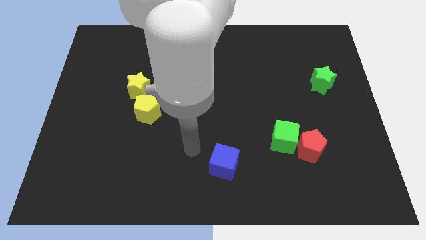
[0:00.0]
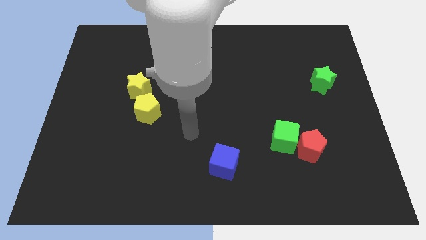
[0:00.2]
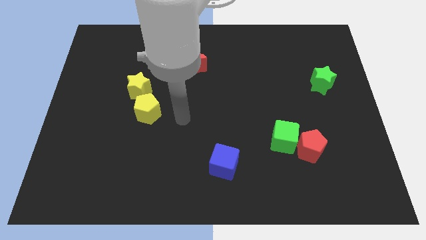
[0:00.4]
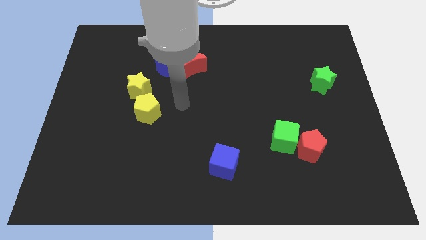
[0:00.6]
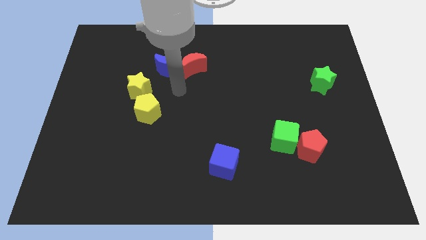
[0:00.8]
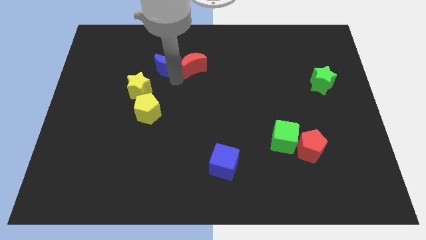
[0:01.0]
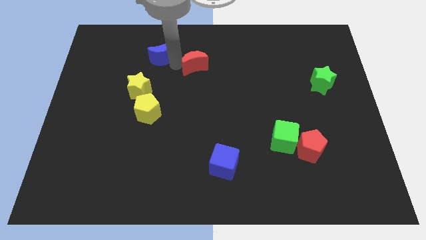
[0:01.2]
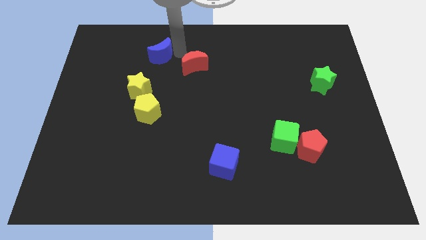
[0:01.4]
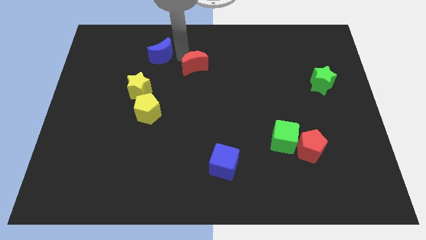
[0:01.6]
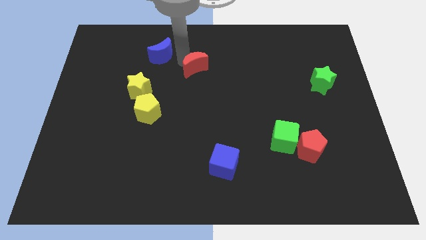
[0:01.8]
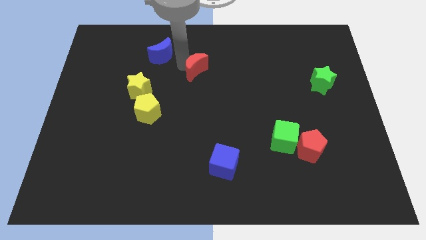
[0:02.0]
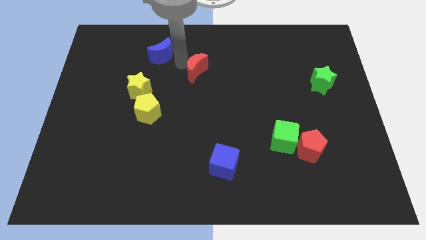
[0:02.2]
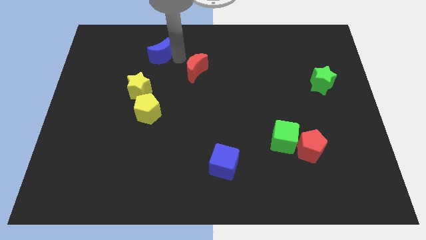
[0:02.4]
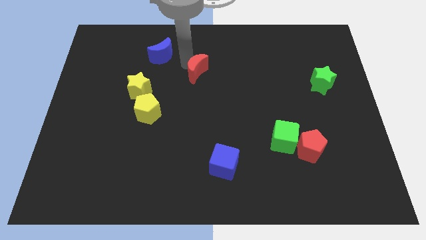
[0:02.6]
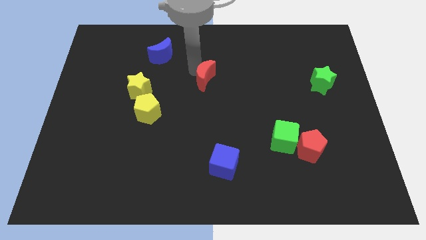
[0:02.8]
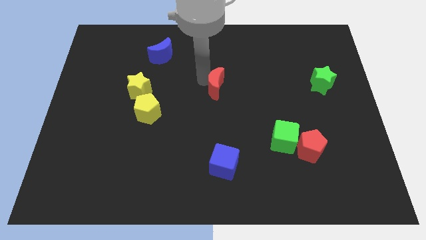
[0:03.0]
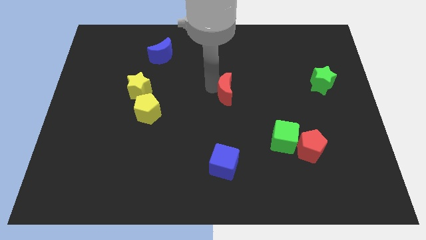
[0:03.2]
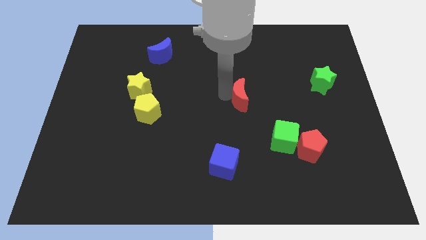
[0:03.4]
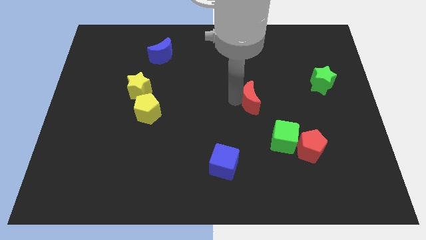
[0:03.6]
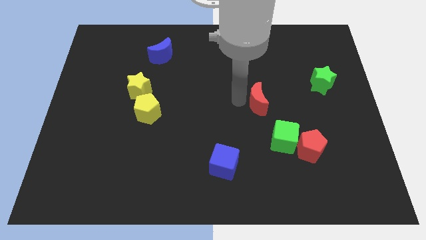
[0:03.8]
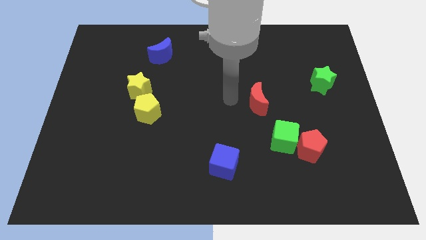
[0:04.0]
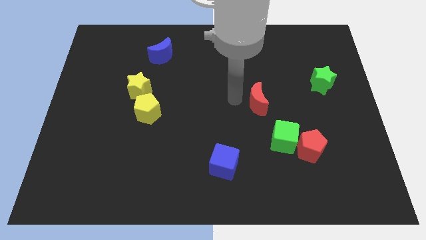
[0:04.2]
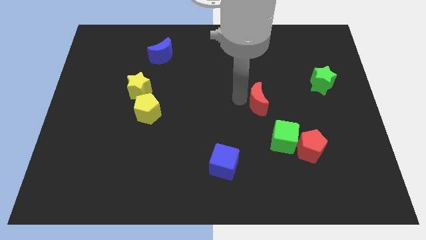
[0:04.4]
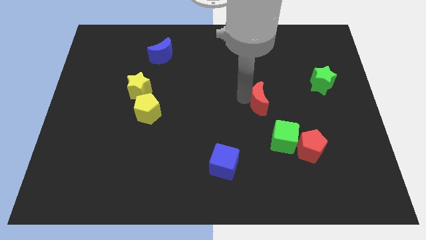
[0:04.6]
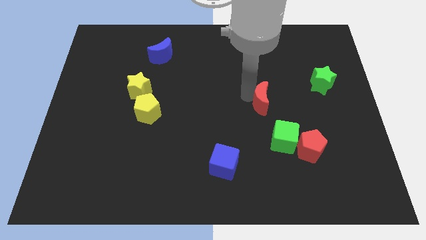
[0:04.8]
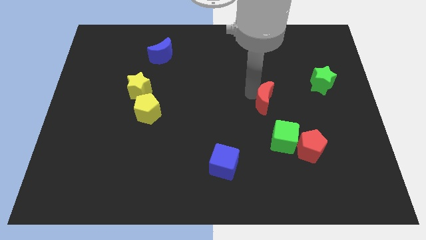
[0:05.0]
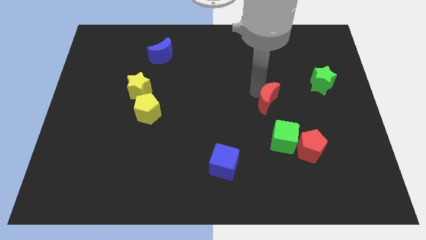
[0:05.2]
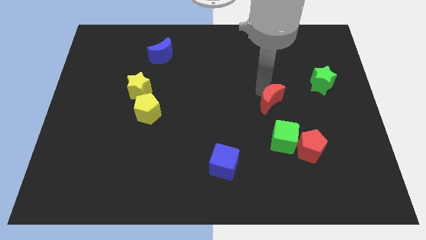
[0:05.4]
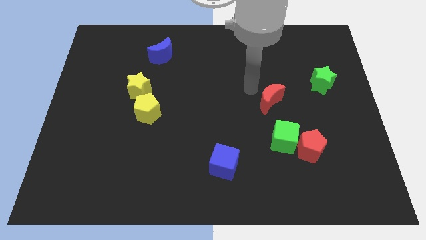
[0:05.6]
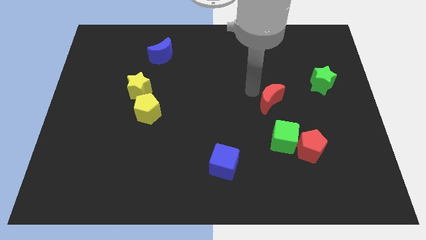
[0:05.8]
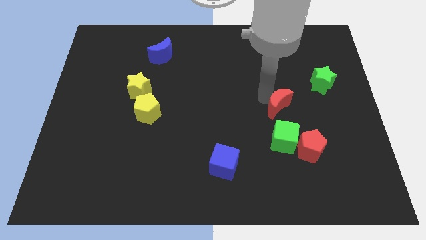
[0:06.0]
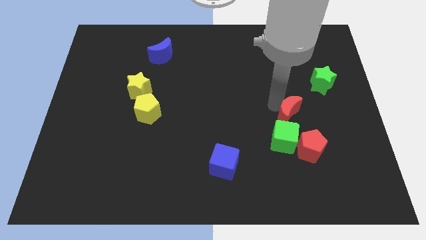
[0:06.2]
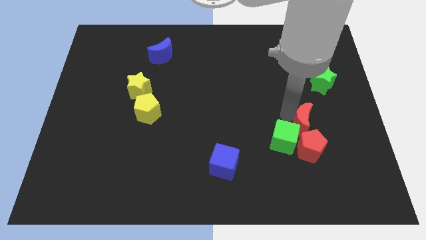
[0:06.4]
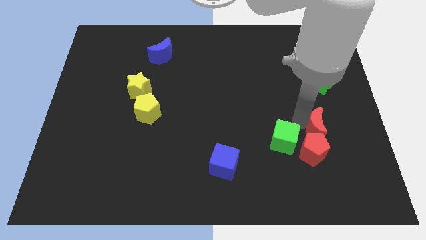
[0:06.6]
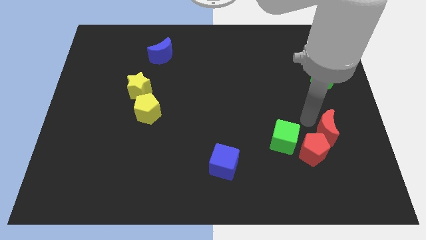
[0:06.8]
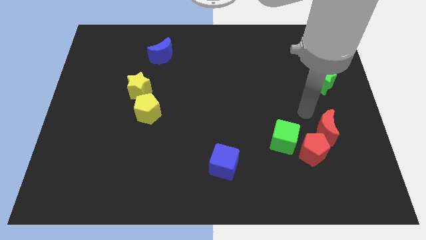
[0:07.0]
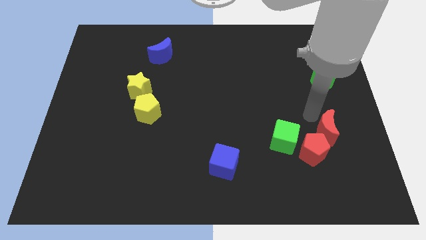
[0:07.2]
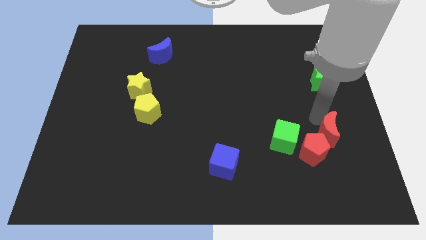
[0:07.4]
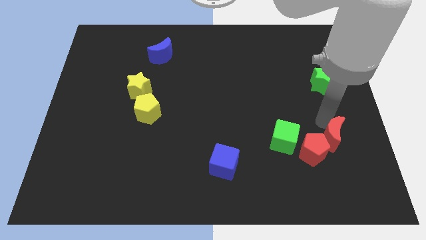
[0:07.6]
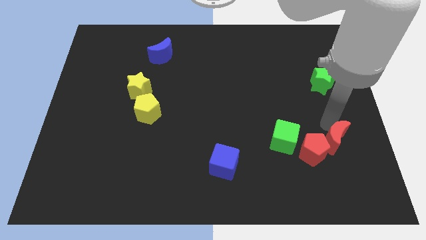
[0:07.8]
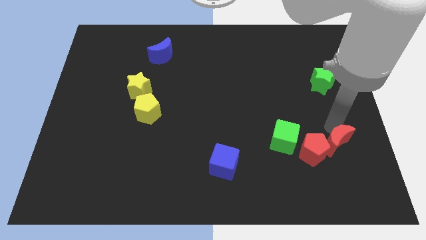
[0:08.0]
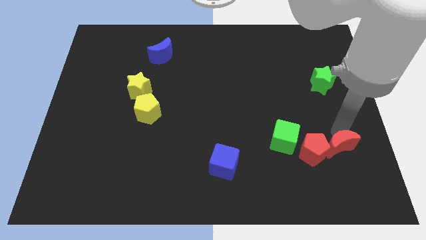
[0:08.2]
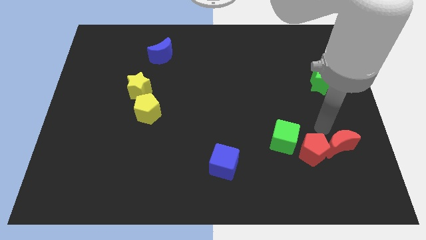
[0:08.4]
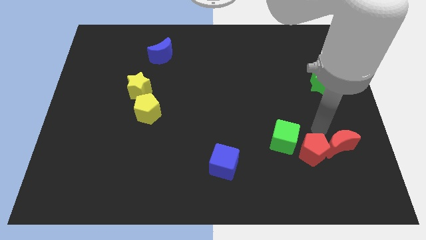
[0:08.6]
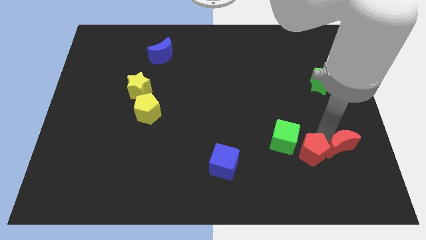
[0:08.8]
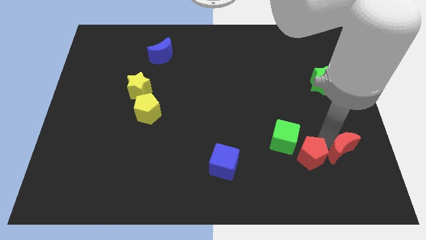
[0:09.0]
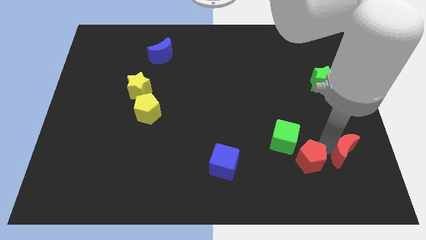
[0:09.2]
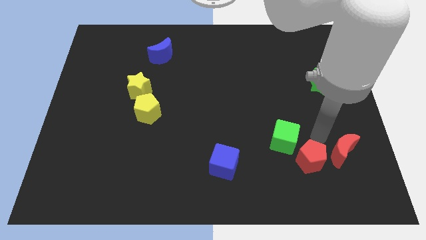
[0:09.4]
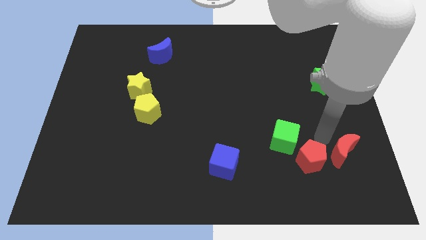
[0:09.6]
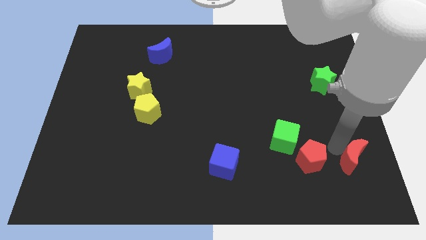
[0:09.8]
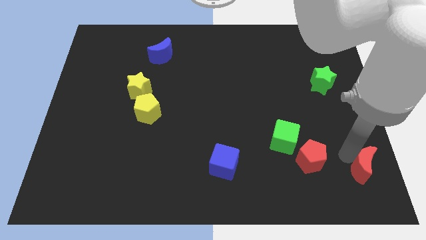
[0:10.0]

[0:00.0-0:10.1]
slide the red moon to the bottom right corner

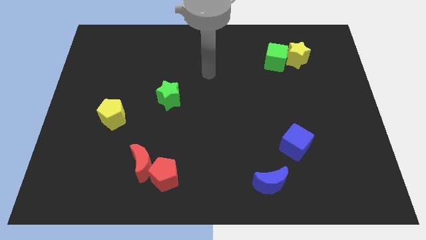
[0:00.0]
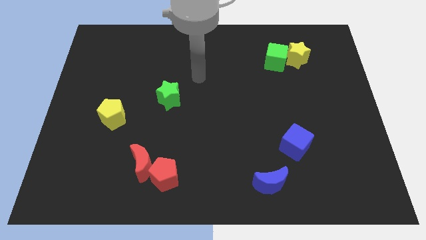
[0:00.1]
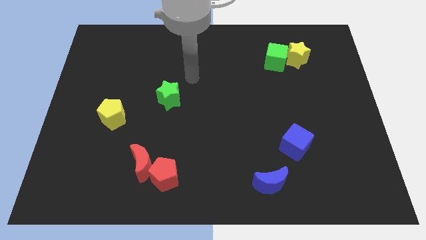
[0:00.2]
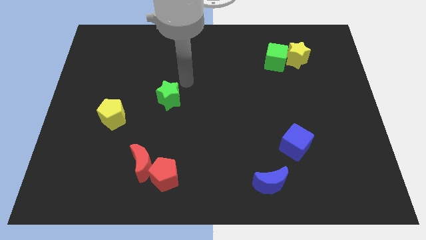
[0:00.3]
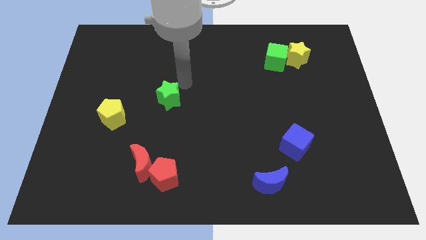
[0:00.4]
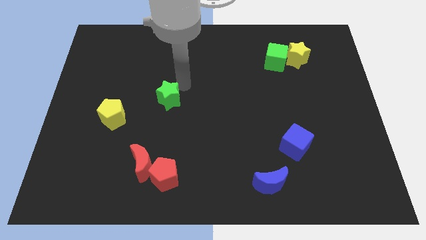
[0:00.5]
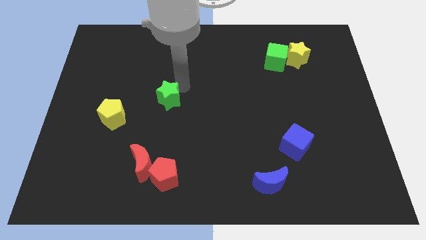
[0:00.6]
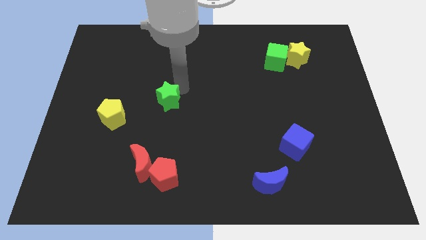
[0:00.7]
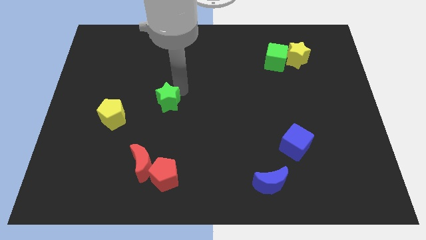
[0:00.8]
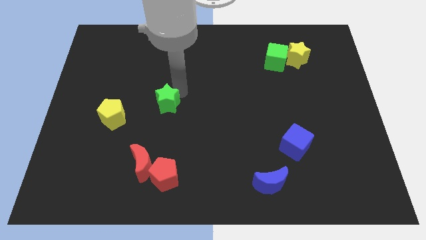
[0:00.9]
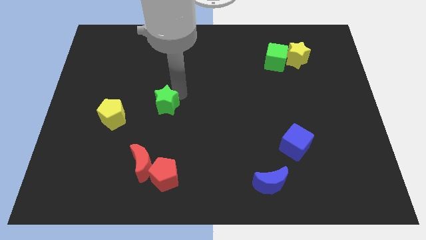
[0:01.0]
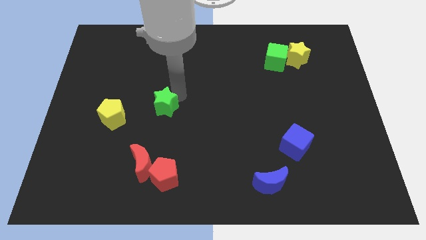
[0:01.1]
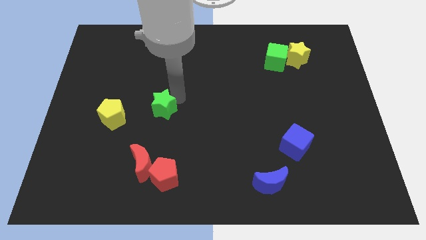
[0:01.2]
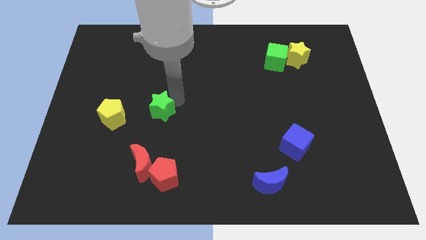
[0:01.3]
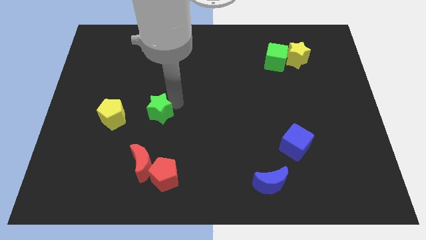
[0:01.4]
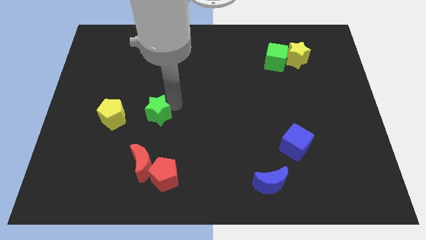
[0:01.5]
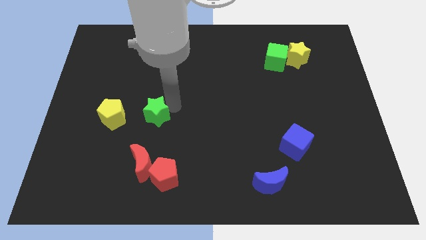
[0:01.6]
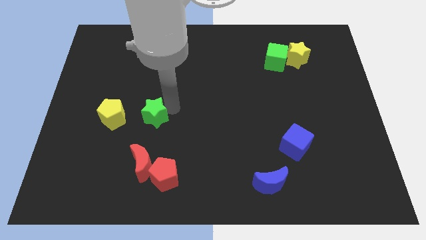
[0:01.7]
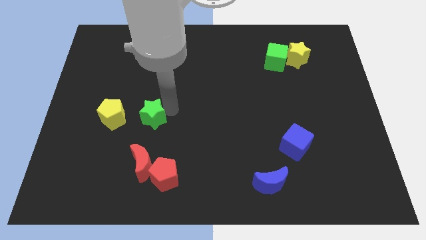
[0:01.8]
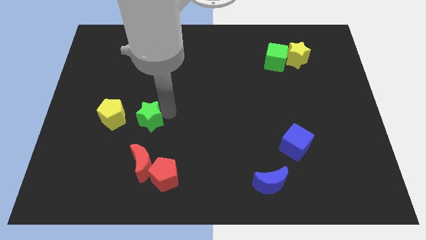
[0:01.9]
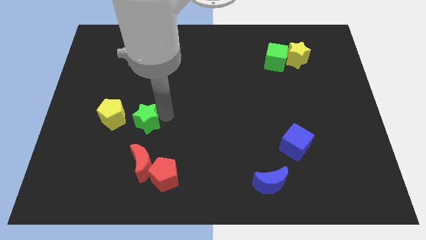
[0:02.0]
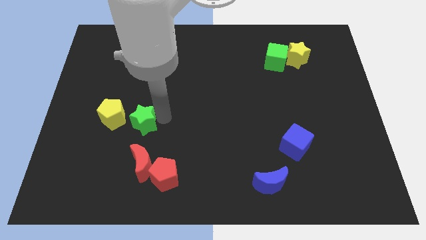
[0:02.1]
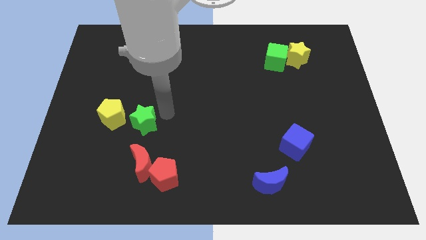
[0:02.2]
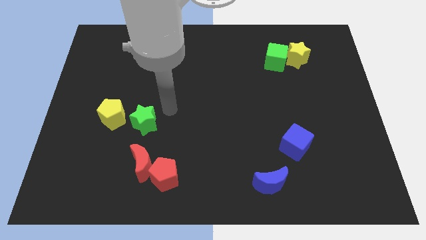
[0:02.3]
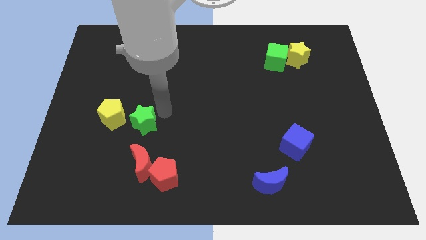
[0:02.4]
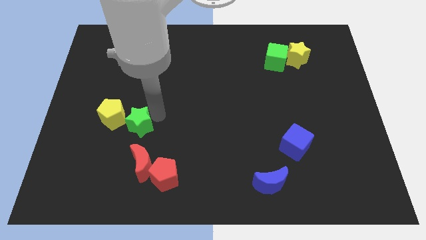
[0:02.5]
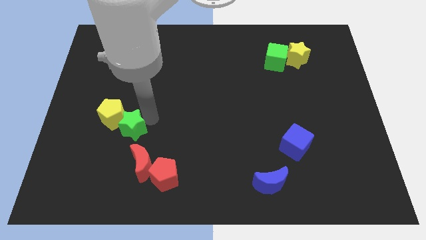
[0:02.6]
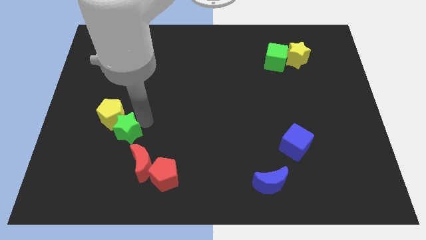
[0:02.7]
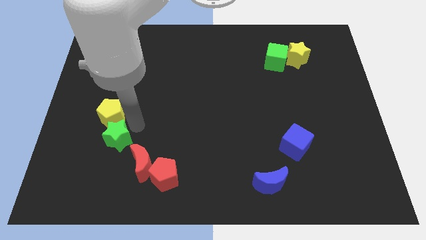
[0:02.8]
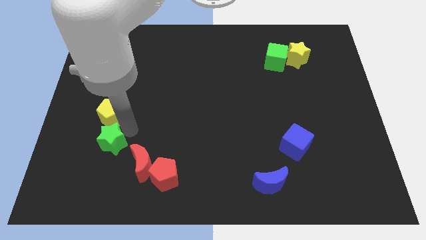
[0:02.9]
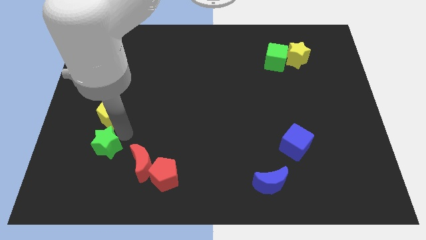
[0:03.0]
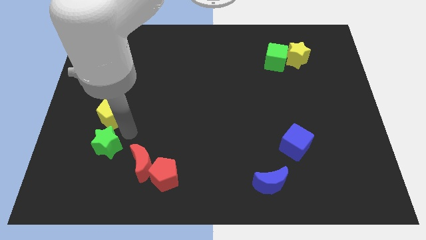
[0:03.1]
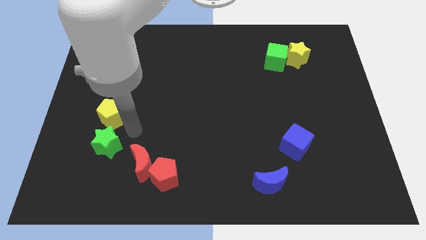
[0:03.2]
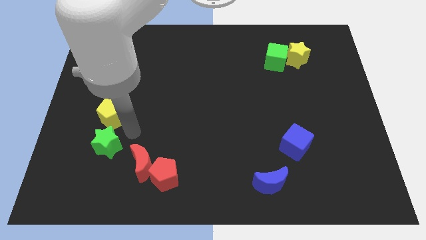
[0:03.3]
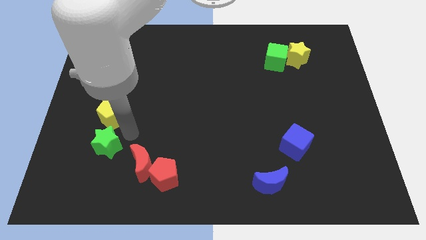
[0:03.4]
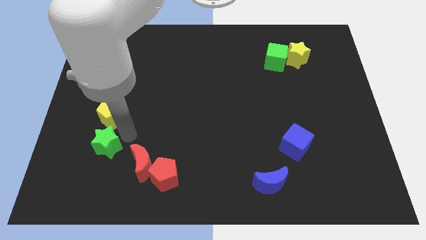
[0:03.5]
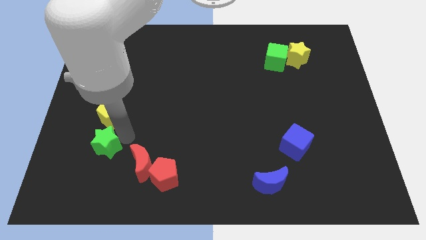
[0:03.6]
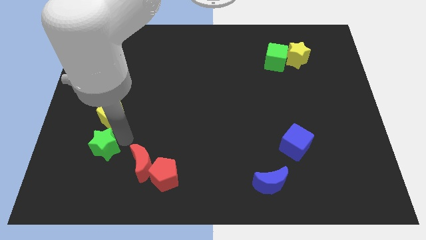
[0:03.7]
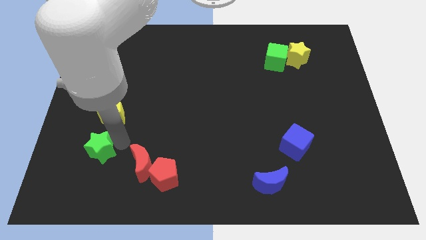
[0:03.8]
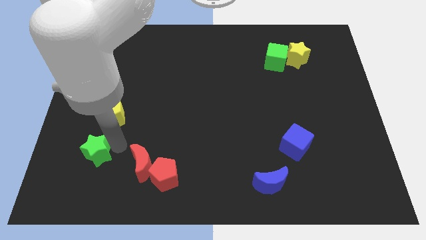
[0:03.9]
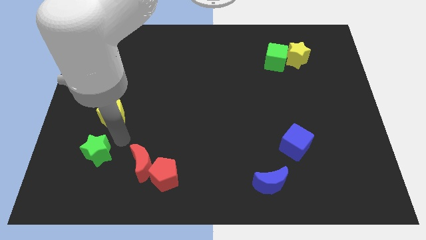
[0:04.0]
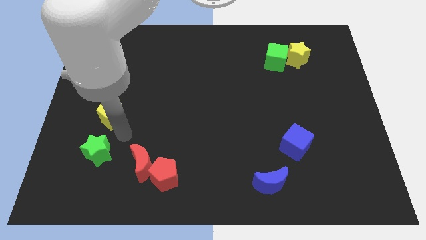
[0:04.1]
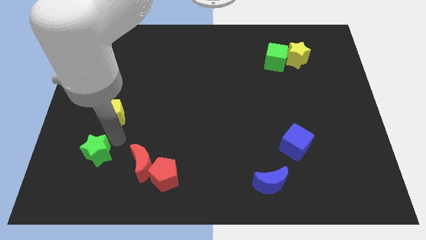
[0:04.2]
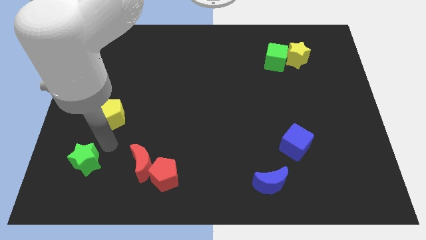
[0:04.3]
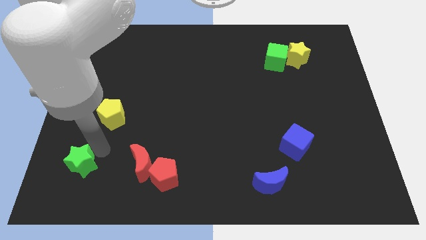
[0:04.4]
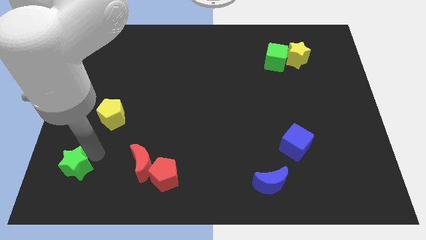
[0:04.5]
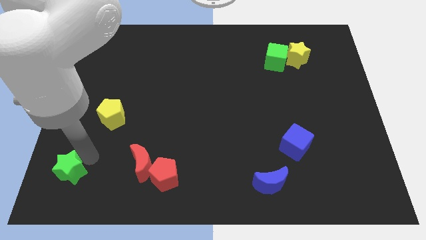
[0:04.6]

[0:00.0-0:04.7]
put the green star to the lower left corner
